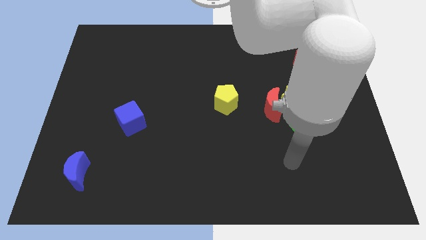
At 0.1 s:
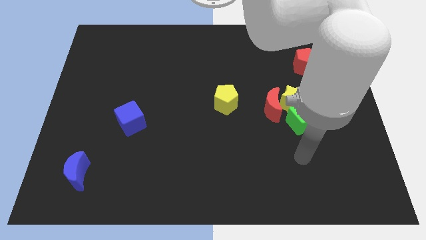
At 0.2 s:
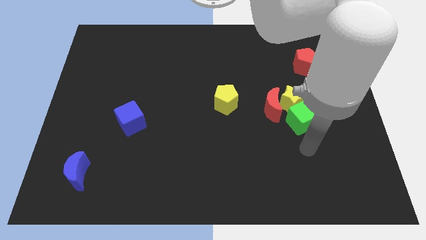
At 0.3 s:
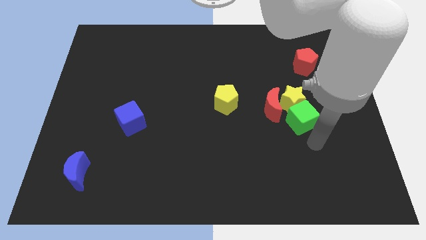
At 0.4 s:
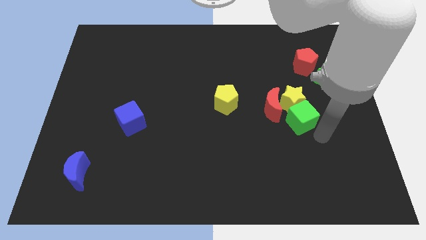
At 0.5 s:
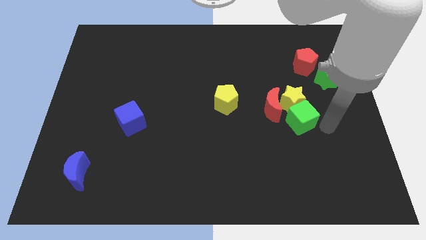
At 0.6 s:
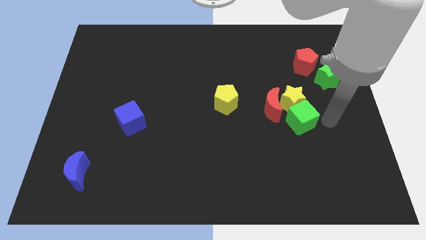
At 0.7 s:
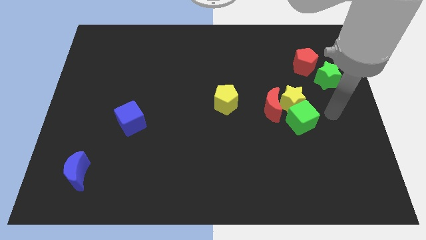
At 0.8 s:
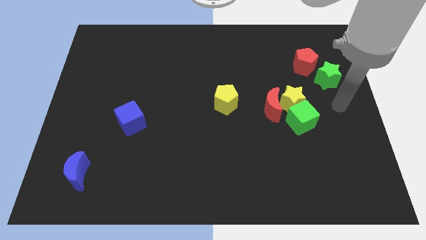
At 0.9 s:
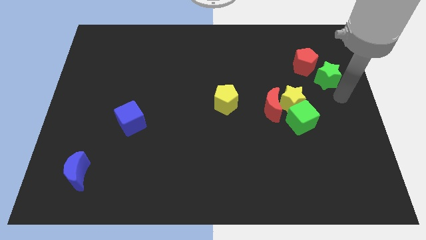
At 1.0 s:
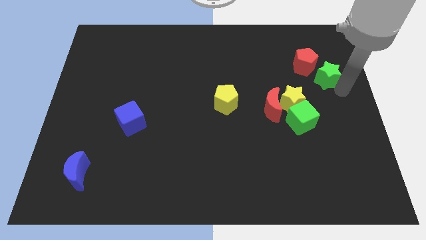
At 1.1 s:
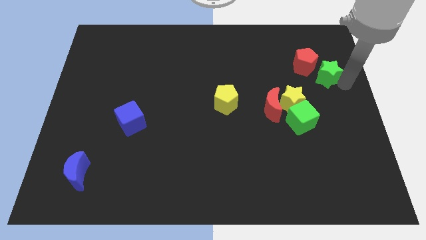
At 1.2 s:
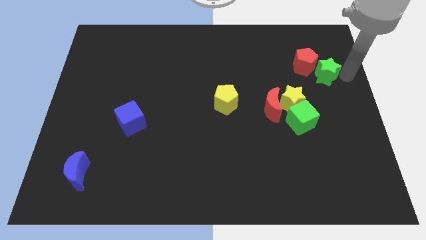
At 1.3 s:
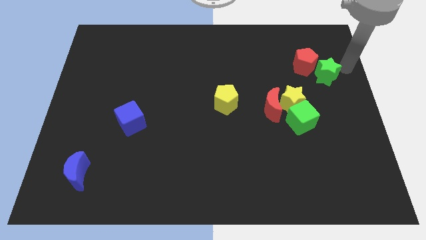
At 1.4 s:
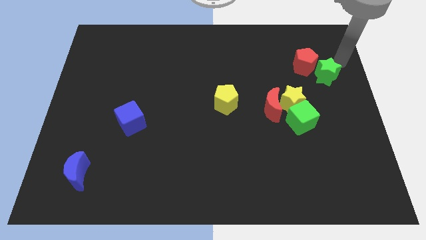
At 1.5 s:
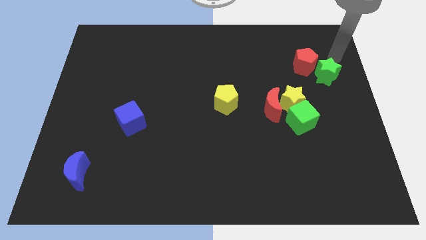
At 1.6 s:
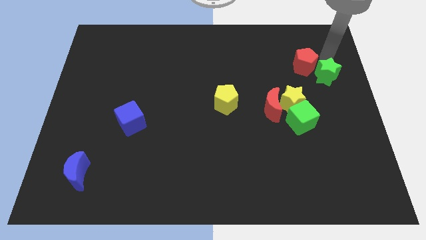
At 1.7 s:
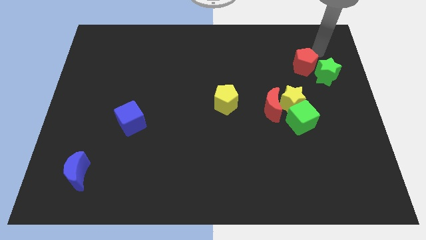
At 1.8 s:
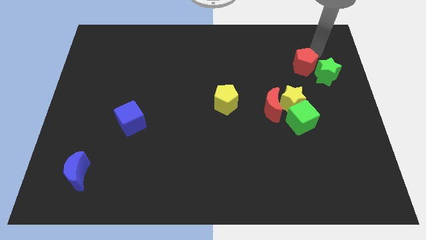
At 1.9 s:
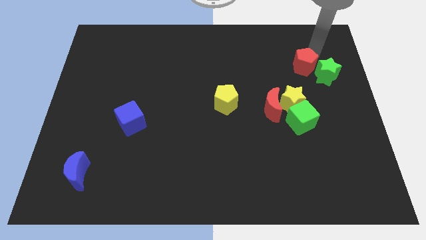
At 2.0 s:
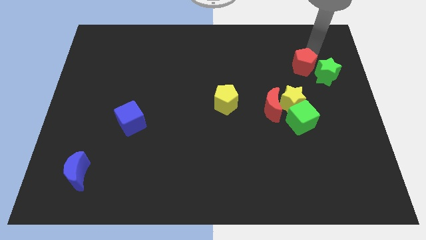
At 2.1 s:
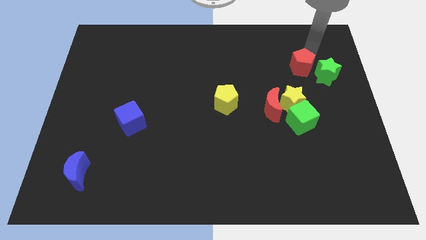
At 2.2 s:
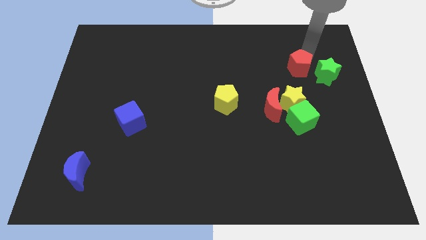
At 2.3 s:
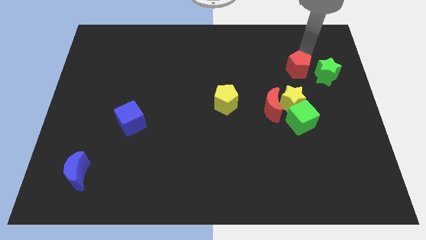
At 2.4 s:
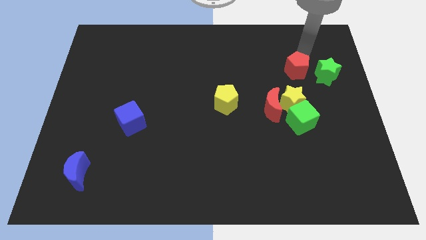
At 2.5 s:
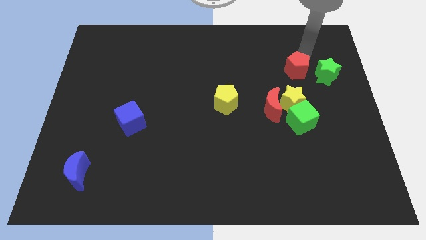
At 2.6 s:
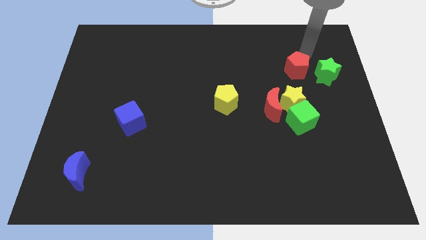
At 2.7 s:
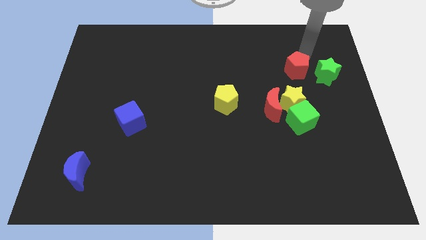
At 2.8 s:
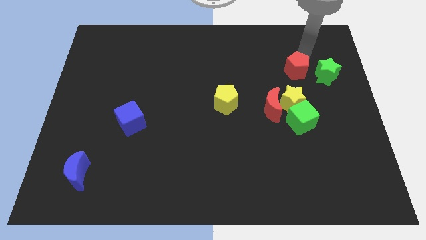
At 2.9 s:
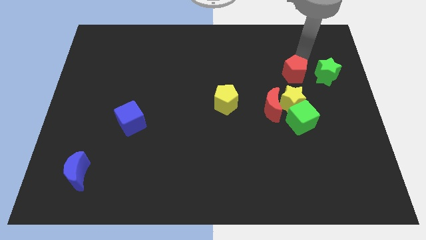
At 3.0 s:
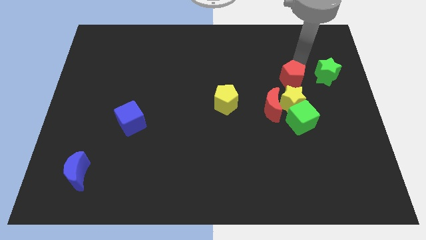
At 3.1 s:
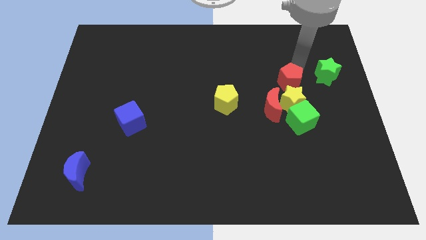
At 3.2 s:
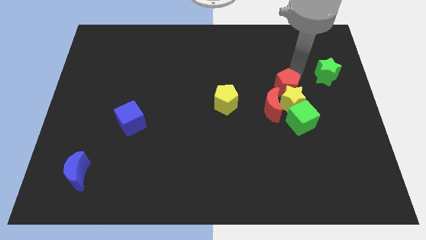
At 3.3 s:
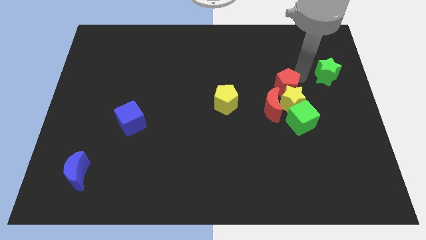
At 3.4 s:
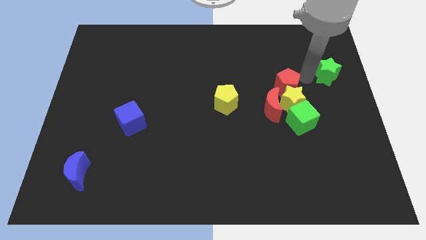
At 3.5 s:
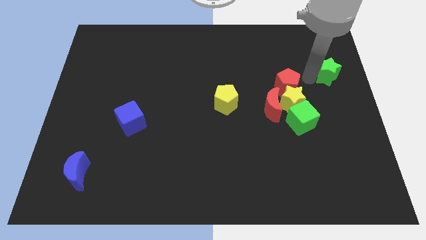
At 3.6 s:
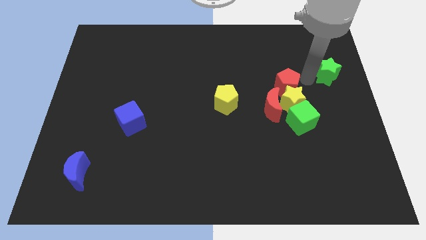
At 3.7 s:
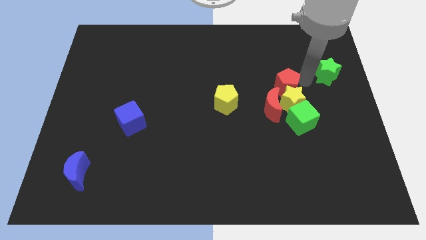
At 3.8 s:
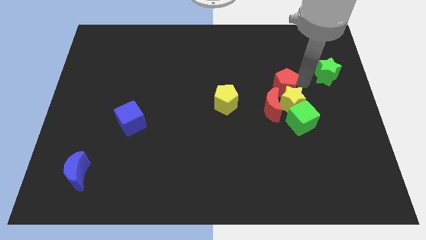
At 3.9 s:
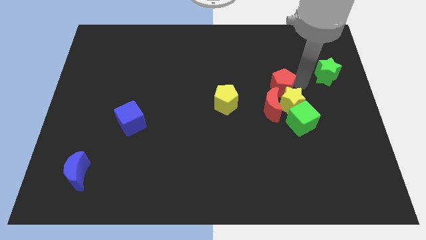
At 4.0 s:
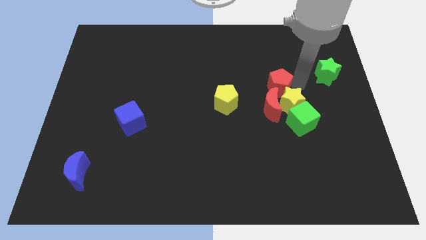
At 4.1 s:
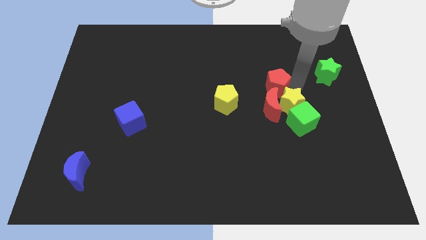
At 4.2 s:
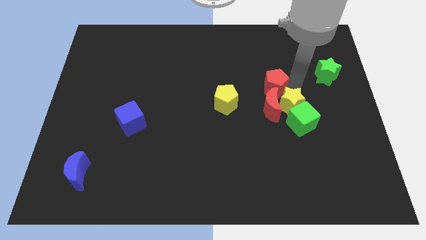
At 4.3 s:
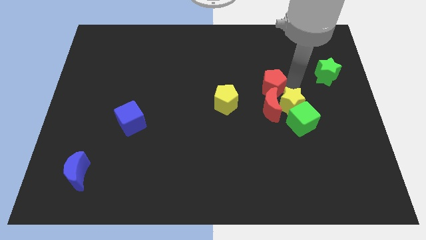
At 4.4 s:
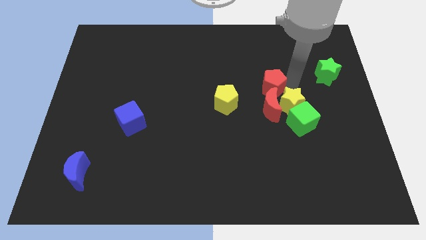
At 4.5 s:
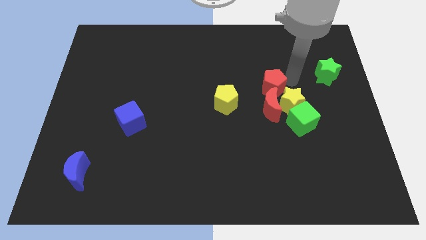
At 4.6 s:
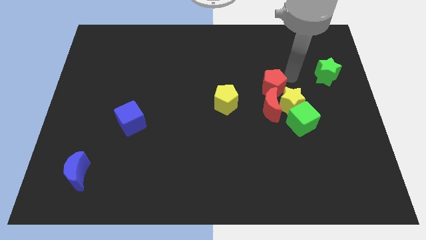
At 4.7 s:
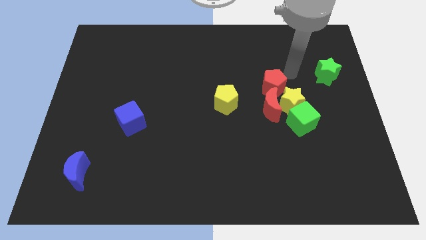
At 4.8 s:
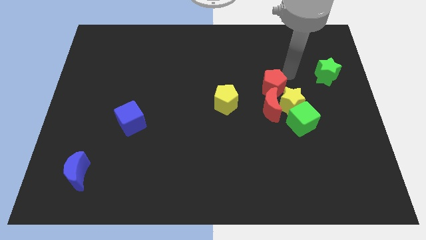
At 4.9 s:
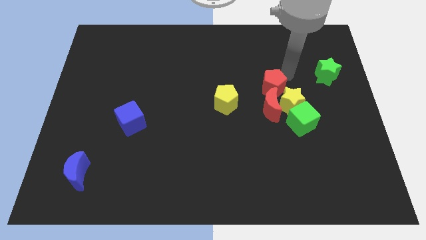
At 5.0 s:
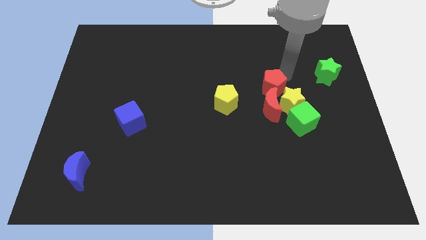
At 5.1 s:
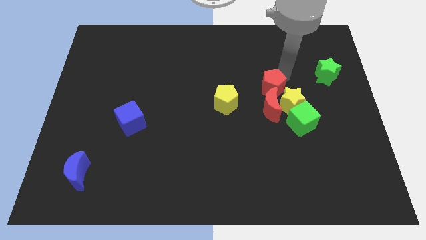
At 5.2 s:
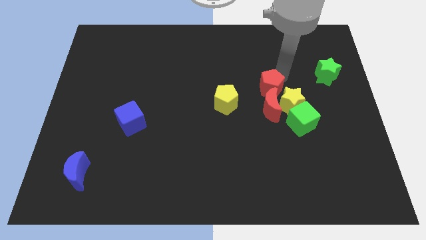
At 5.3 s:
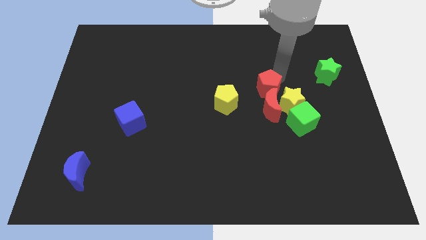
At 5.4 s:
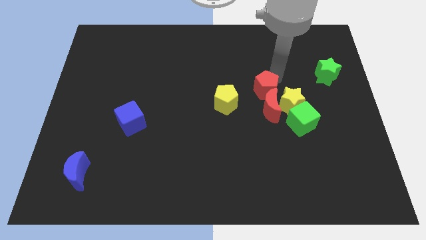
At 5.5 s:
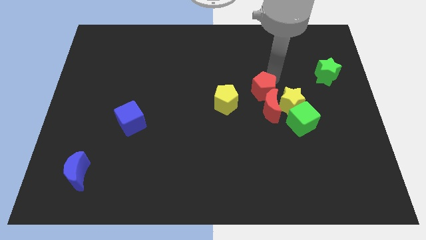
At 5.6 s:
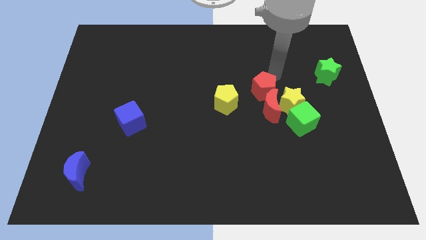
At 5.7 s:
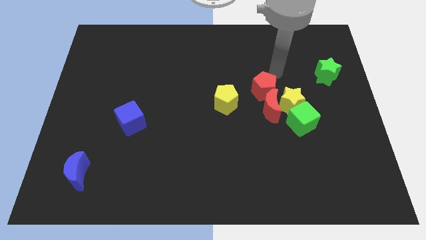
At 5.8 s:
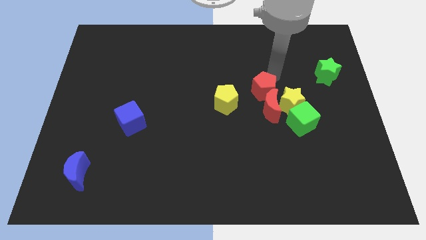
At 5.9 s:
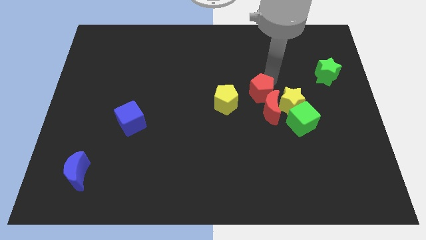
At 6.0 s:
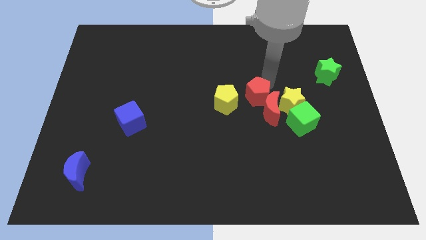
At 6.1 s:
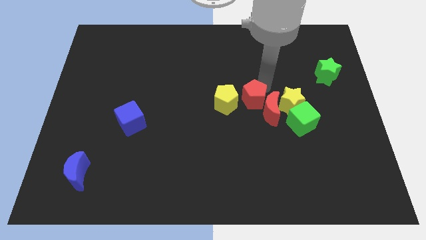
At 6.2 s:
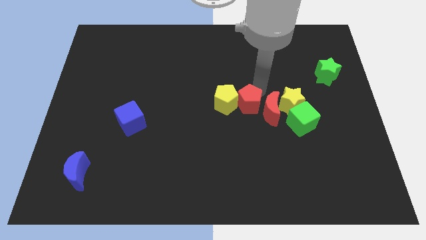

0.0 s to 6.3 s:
move the red pentagon diagonally down and to the right of the yellow pentagon
